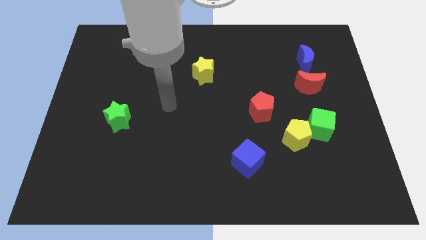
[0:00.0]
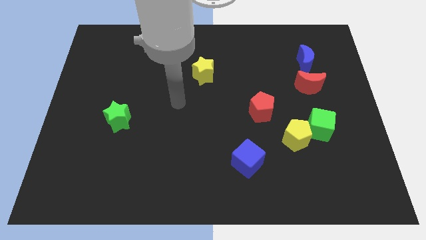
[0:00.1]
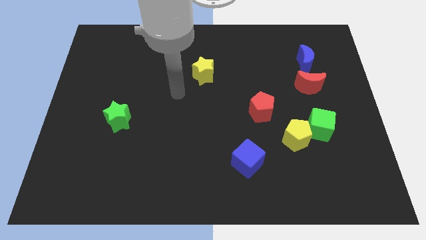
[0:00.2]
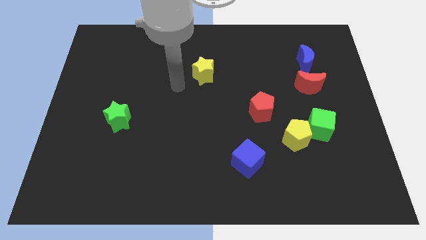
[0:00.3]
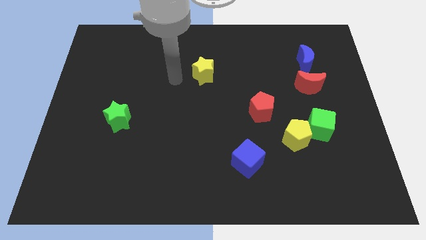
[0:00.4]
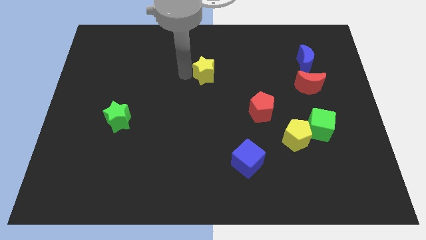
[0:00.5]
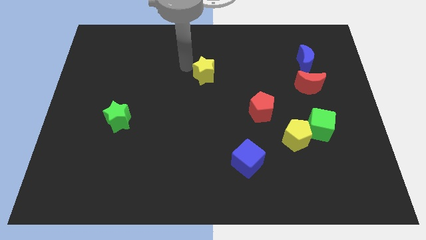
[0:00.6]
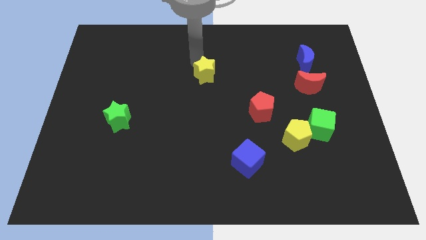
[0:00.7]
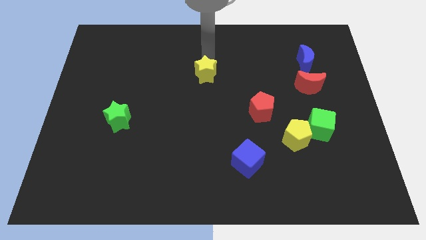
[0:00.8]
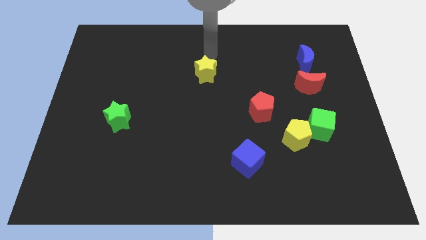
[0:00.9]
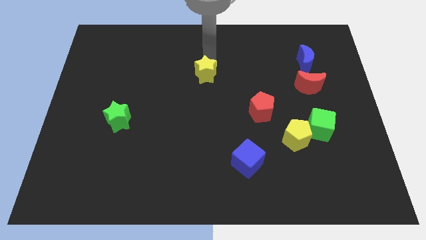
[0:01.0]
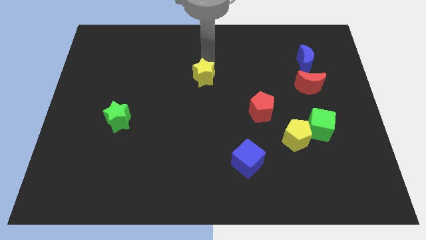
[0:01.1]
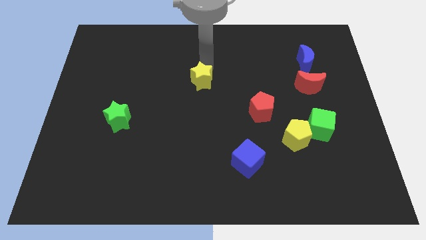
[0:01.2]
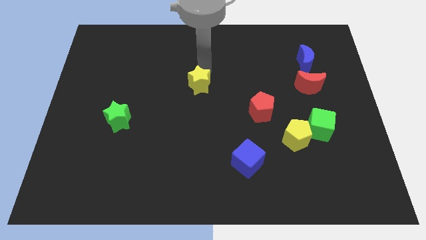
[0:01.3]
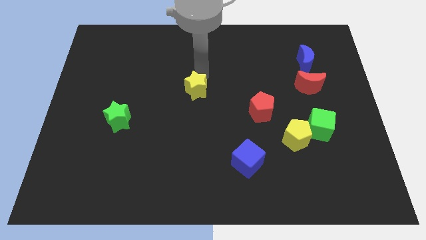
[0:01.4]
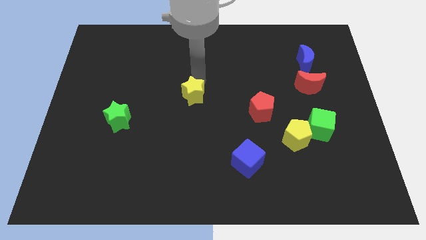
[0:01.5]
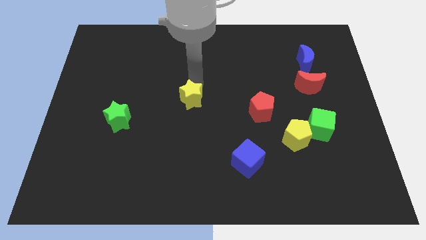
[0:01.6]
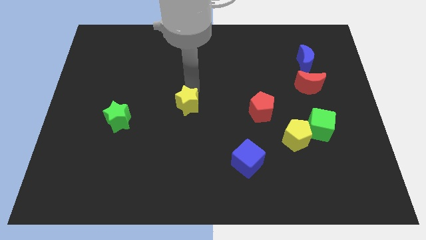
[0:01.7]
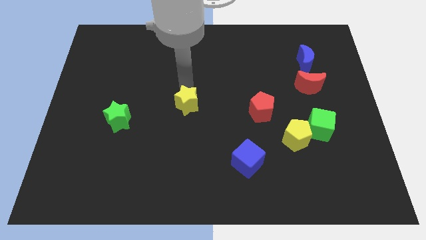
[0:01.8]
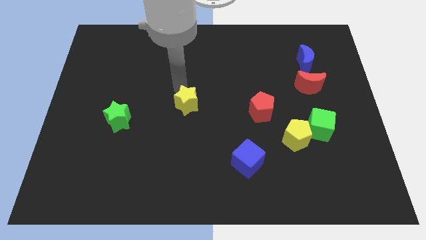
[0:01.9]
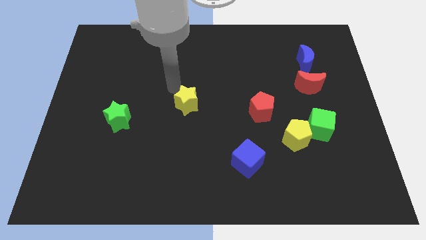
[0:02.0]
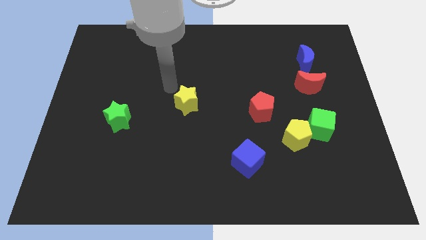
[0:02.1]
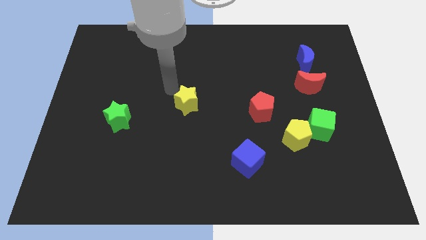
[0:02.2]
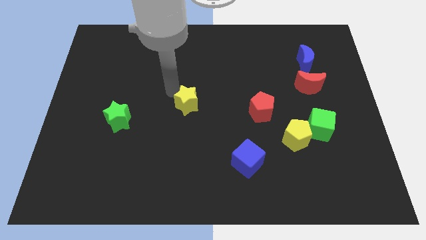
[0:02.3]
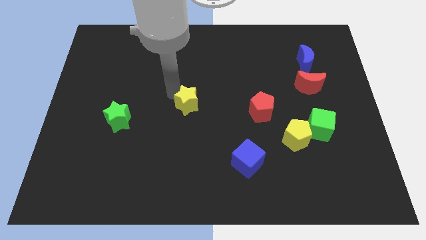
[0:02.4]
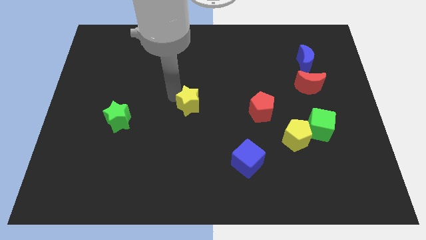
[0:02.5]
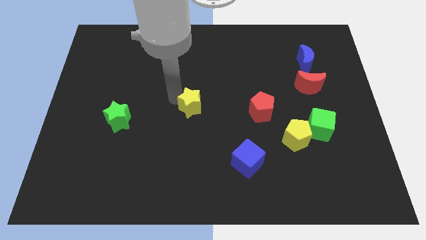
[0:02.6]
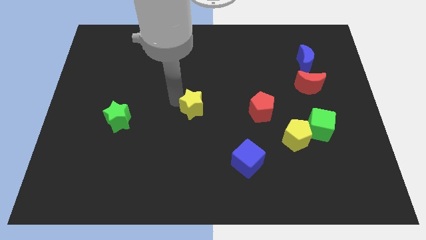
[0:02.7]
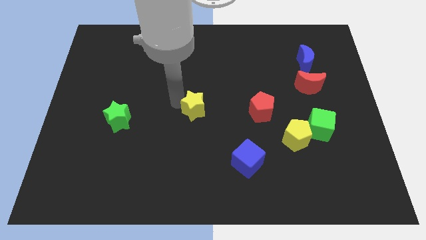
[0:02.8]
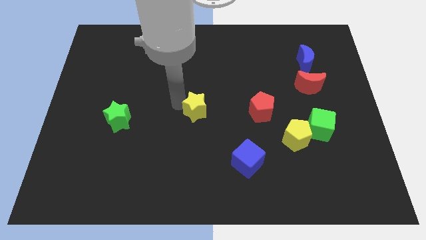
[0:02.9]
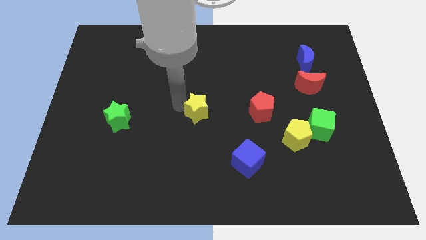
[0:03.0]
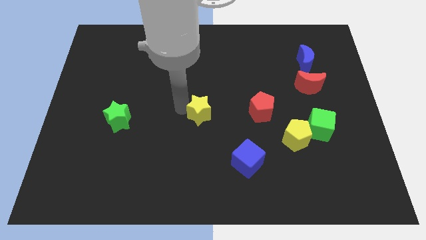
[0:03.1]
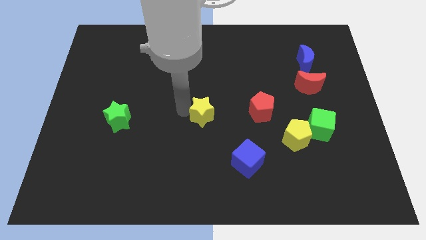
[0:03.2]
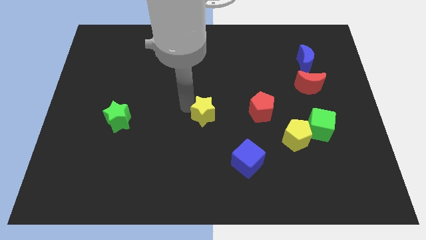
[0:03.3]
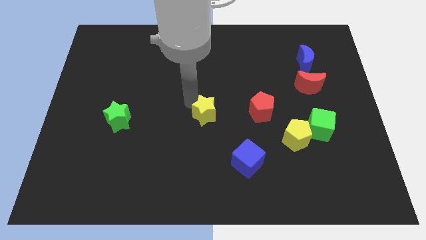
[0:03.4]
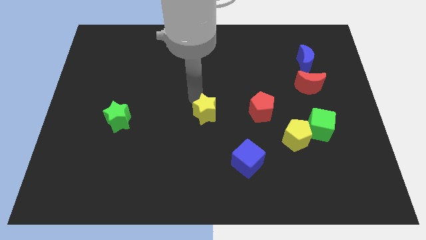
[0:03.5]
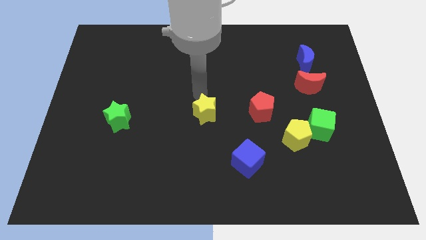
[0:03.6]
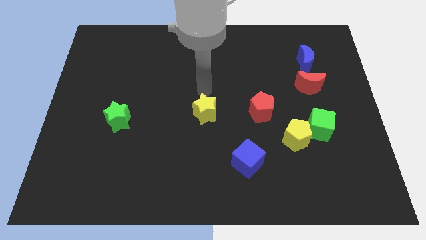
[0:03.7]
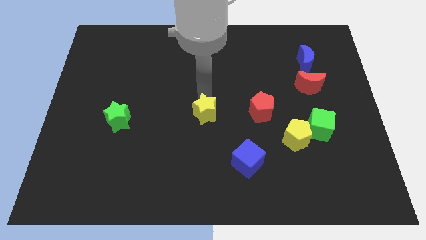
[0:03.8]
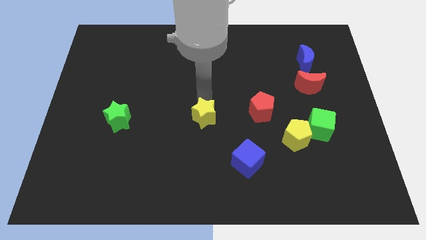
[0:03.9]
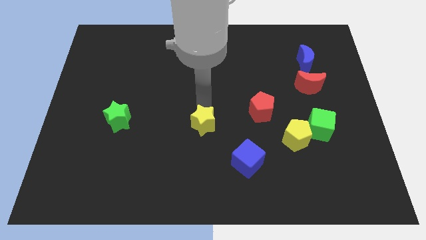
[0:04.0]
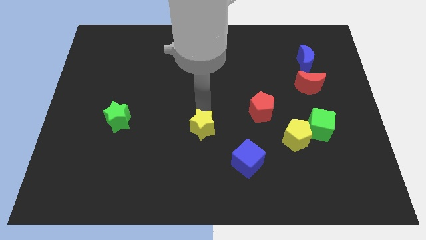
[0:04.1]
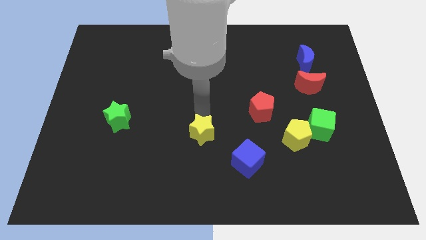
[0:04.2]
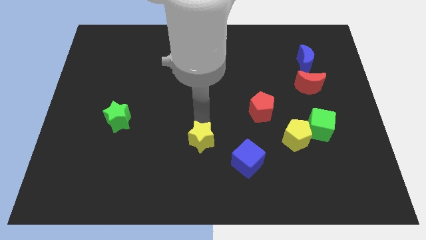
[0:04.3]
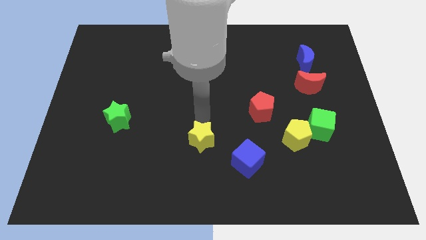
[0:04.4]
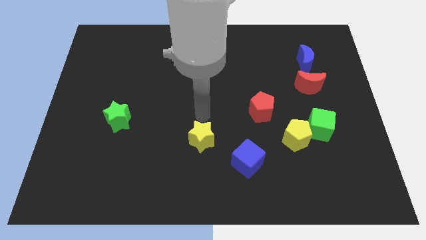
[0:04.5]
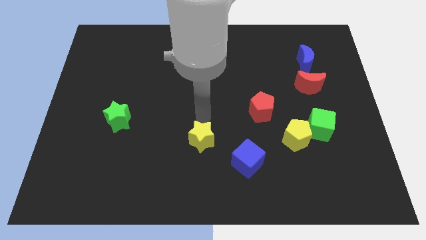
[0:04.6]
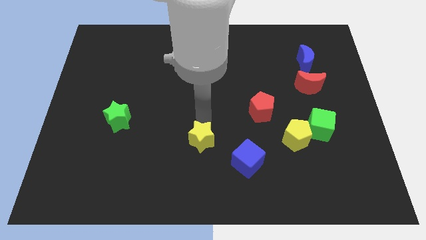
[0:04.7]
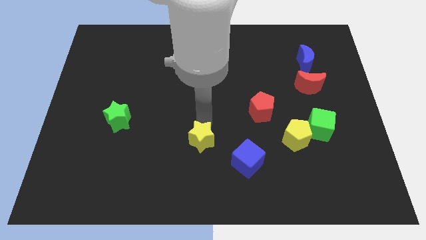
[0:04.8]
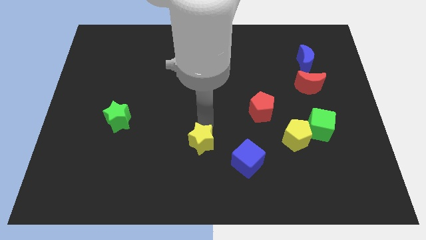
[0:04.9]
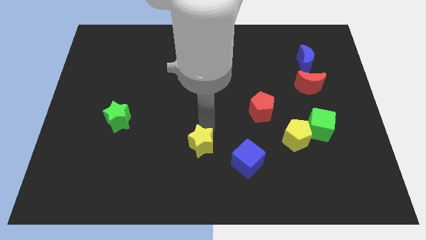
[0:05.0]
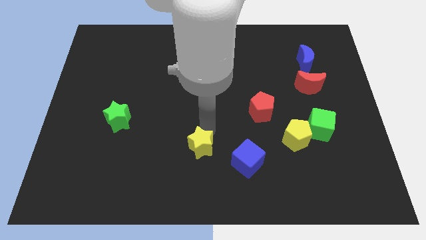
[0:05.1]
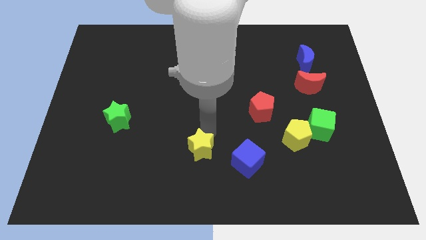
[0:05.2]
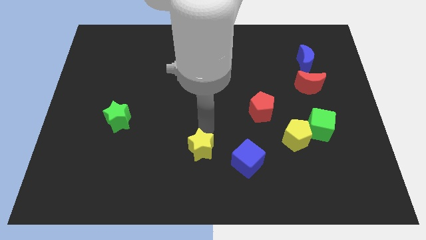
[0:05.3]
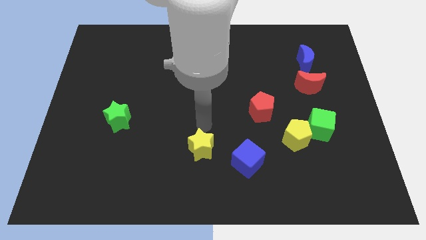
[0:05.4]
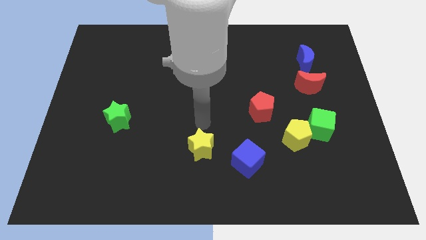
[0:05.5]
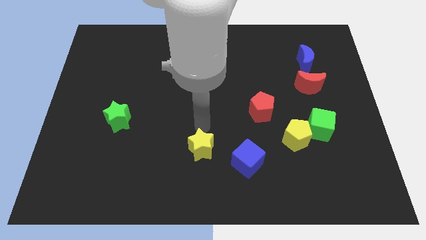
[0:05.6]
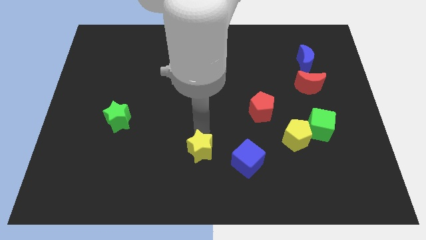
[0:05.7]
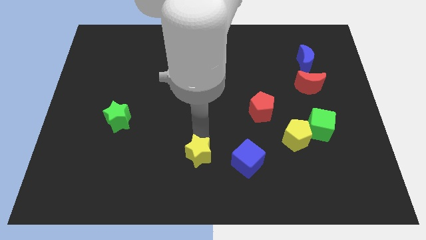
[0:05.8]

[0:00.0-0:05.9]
push the yellow star to the bottom side

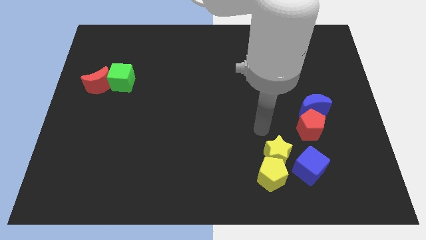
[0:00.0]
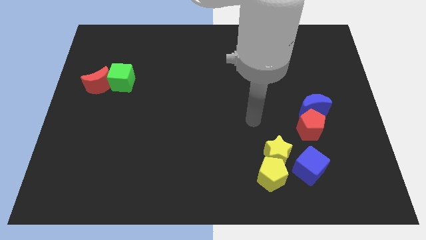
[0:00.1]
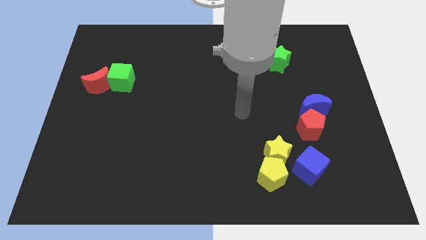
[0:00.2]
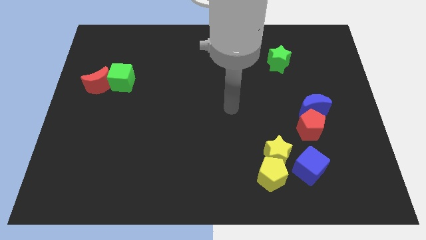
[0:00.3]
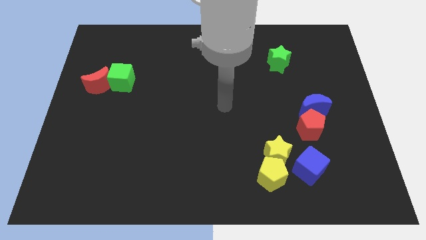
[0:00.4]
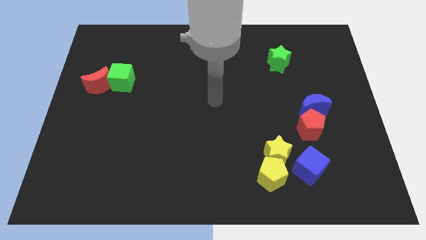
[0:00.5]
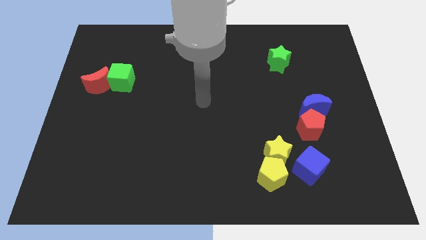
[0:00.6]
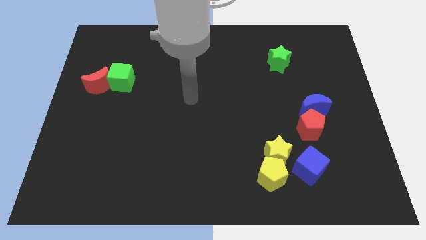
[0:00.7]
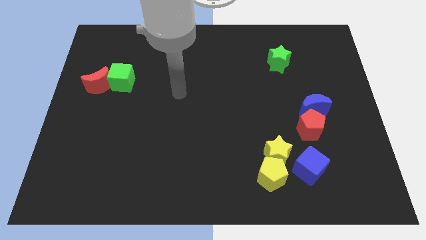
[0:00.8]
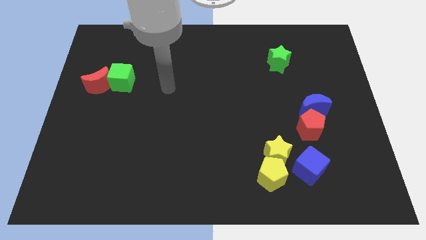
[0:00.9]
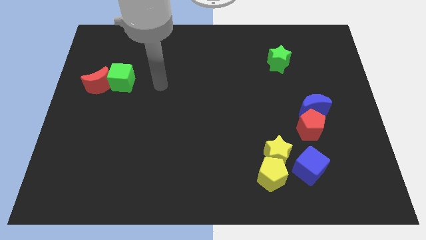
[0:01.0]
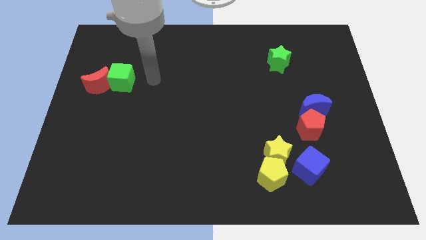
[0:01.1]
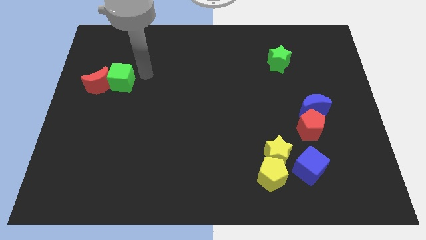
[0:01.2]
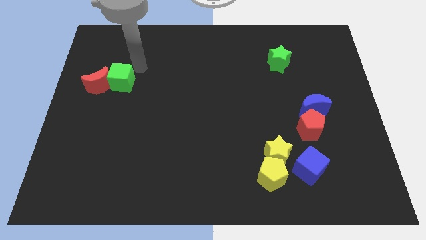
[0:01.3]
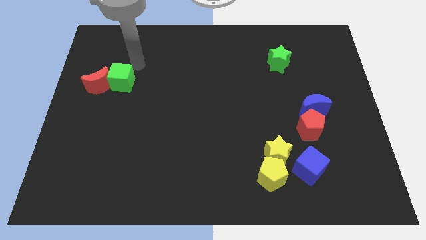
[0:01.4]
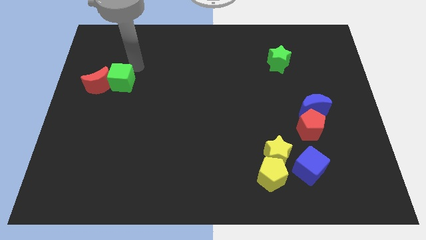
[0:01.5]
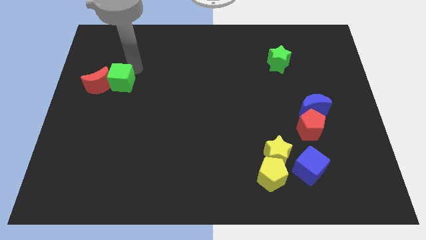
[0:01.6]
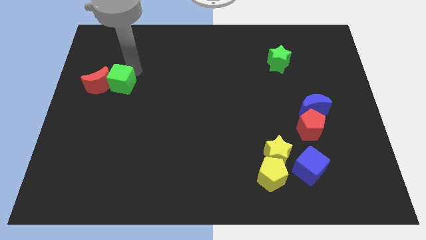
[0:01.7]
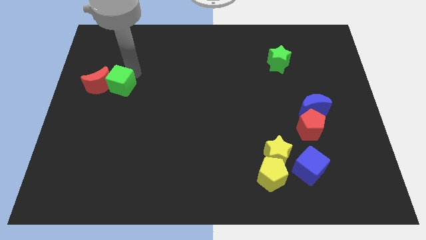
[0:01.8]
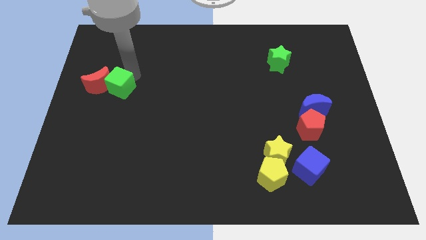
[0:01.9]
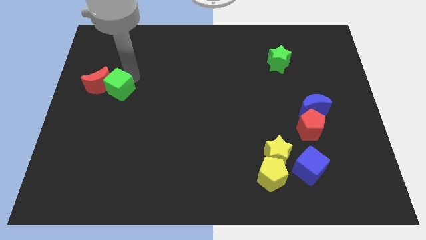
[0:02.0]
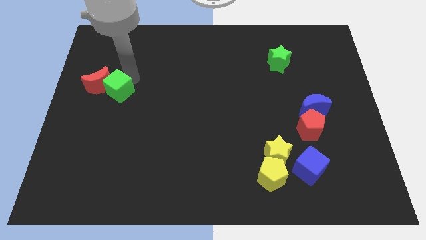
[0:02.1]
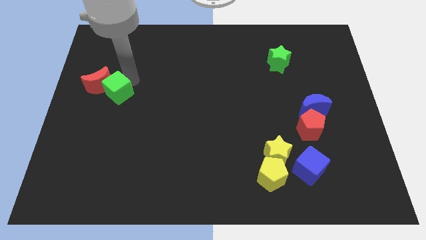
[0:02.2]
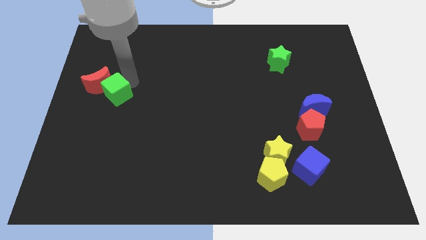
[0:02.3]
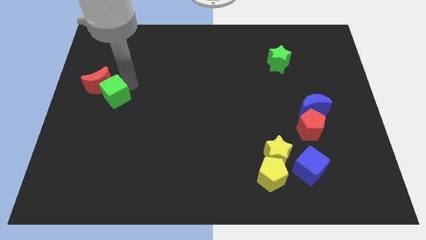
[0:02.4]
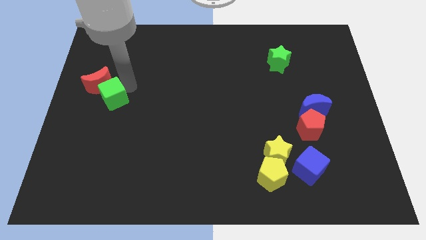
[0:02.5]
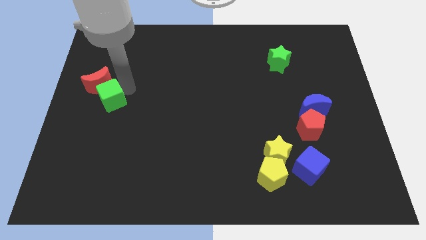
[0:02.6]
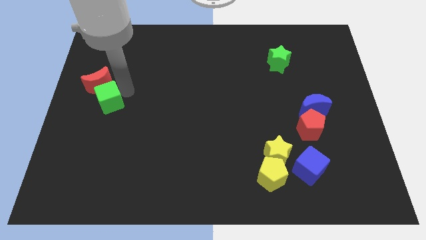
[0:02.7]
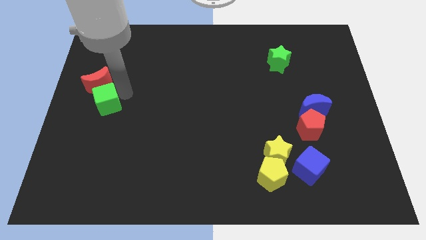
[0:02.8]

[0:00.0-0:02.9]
put the green cube to the center left
